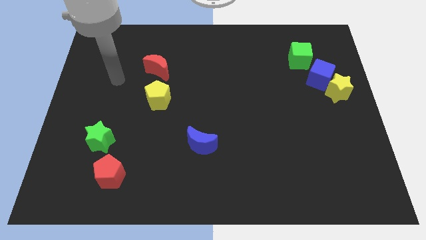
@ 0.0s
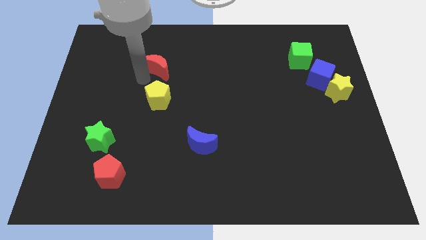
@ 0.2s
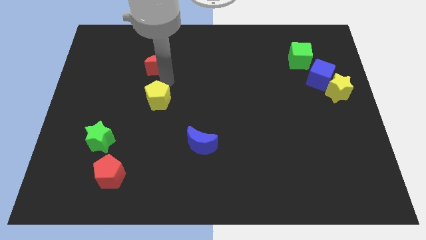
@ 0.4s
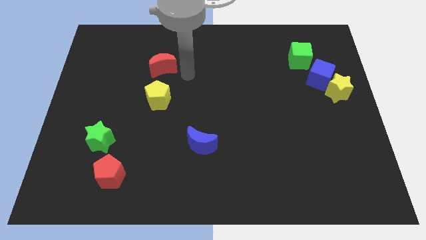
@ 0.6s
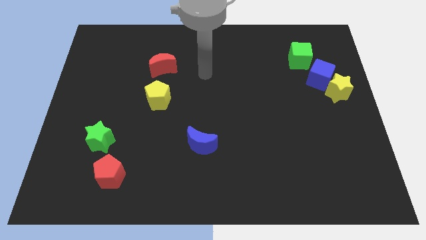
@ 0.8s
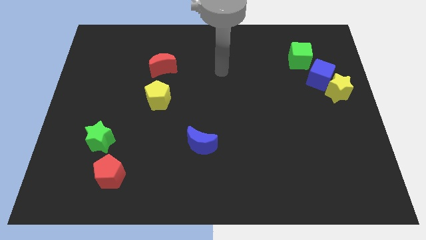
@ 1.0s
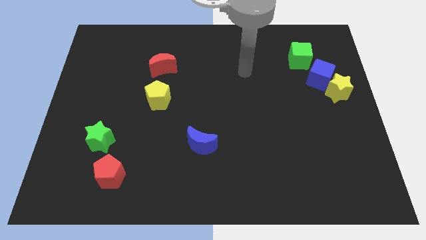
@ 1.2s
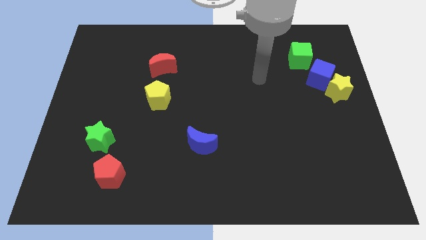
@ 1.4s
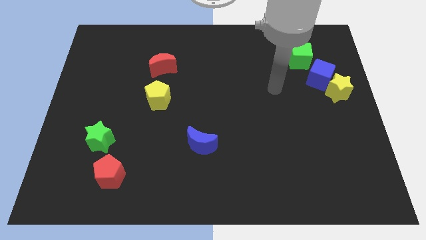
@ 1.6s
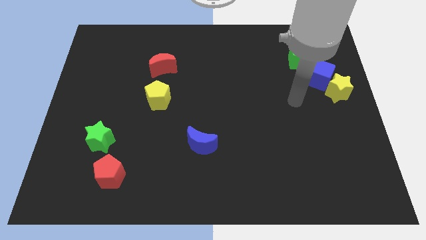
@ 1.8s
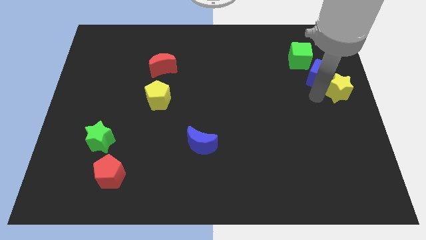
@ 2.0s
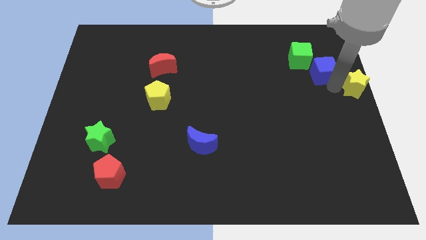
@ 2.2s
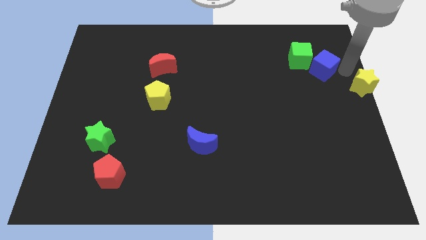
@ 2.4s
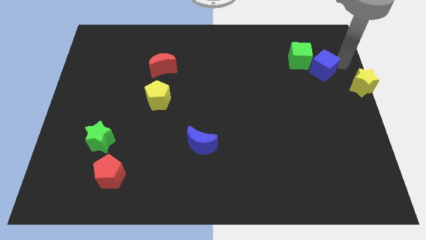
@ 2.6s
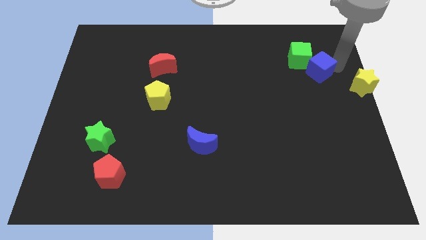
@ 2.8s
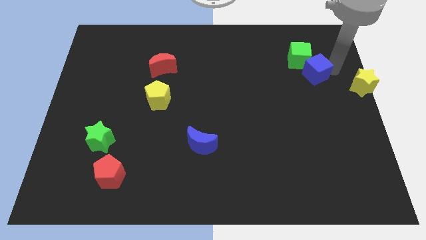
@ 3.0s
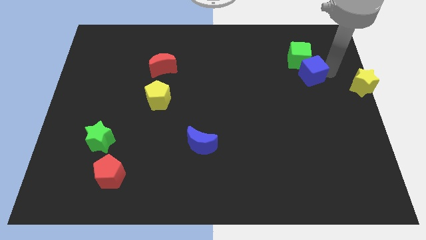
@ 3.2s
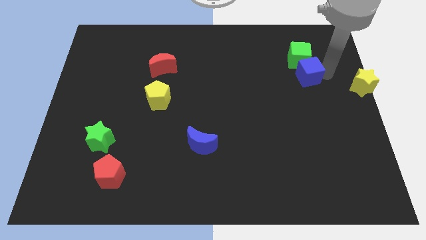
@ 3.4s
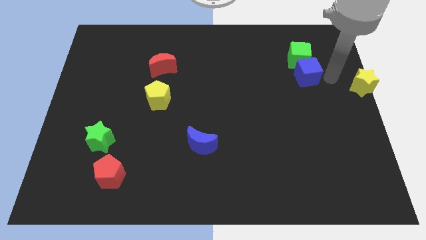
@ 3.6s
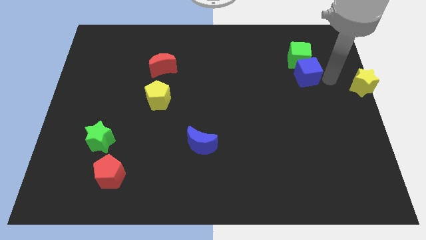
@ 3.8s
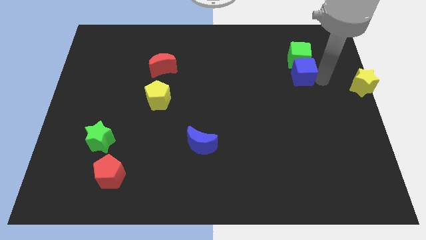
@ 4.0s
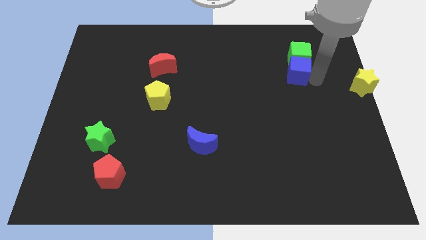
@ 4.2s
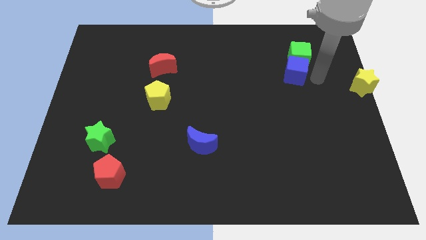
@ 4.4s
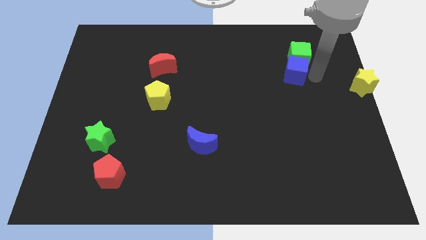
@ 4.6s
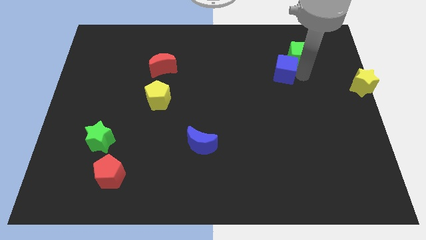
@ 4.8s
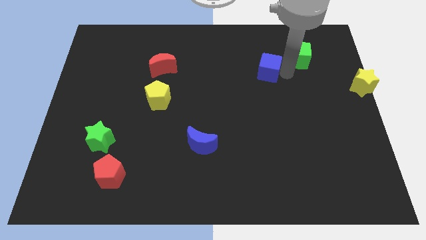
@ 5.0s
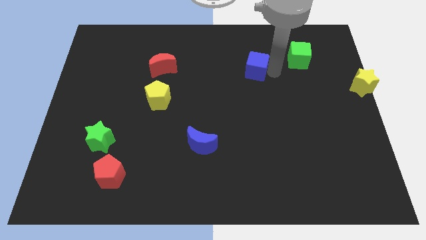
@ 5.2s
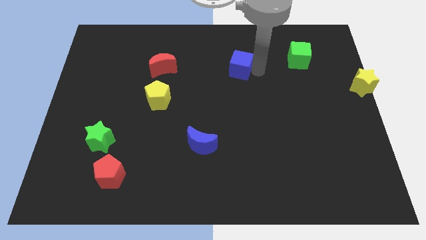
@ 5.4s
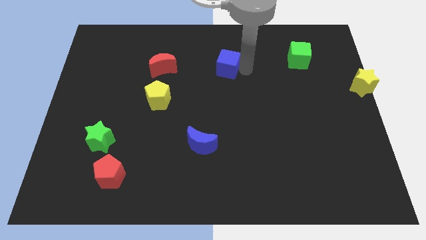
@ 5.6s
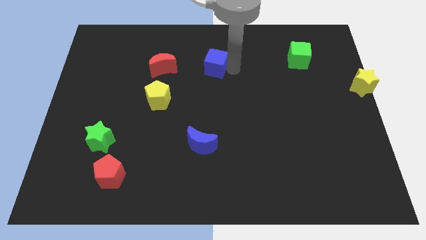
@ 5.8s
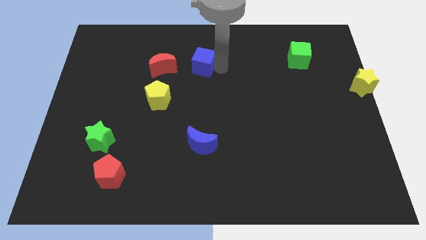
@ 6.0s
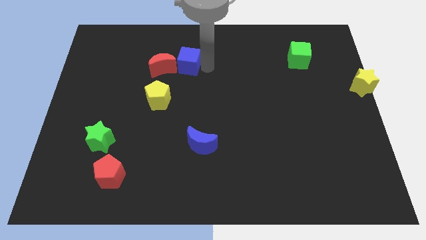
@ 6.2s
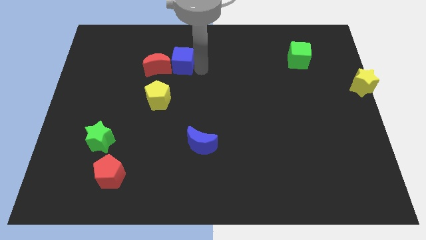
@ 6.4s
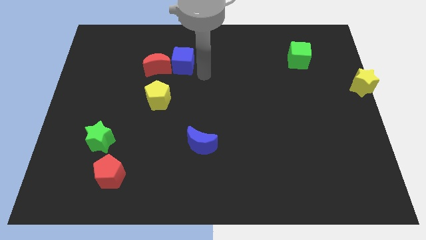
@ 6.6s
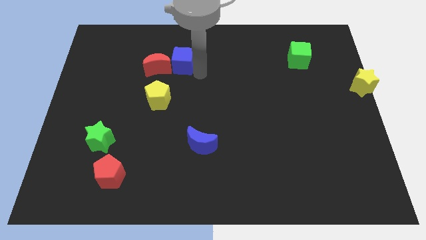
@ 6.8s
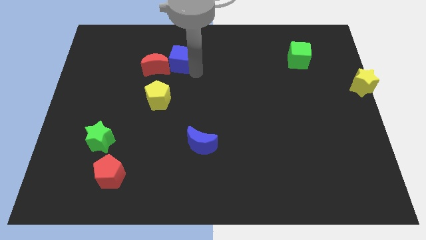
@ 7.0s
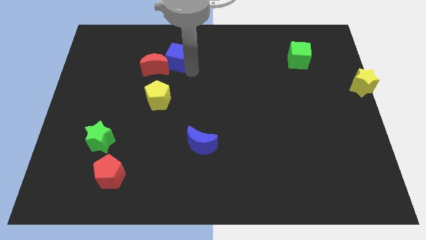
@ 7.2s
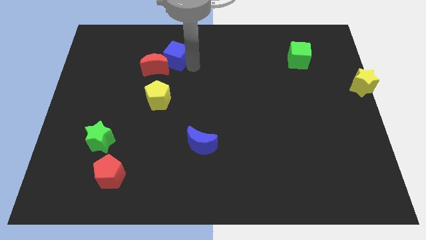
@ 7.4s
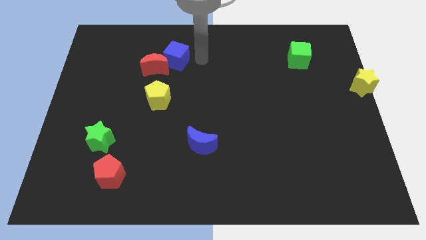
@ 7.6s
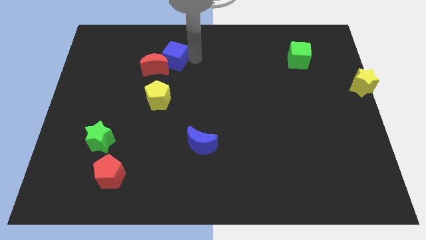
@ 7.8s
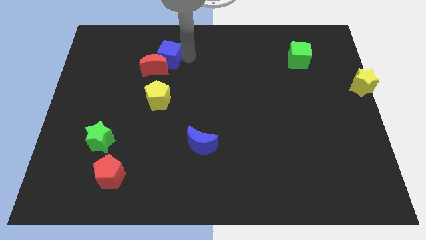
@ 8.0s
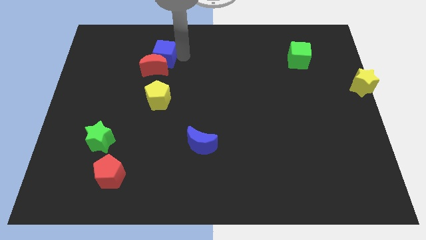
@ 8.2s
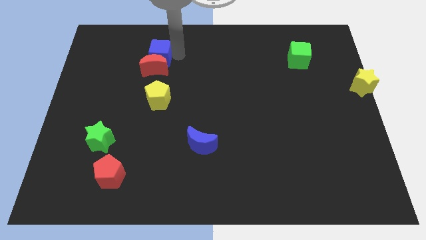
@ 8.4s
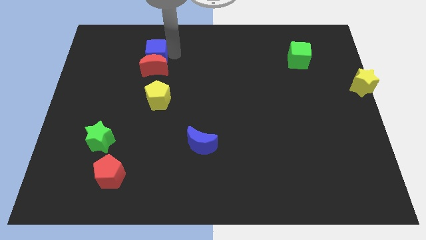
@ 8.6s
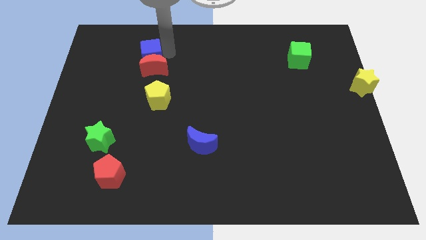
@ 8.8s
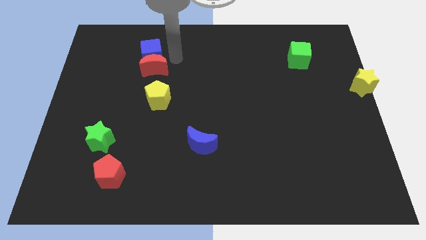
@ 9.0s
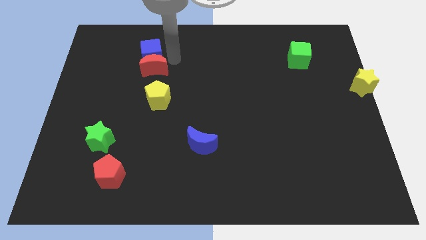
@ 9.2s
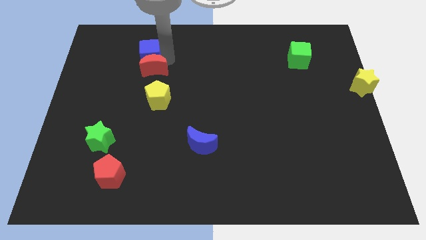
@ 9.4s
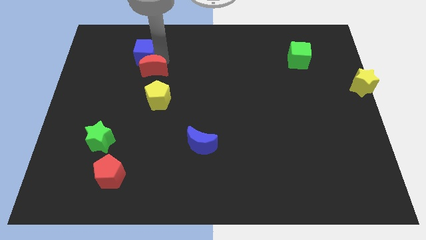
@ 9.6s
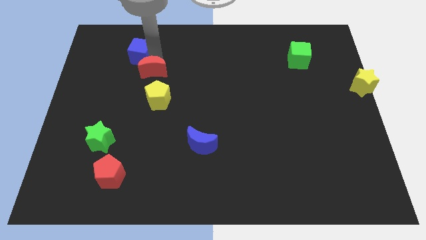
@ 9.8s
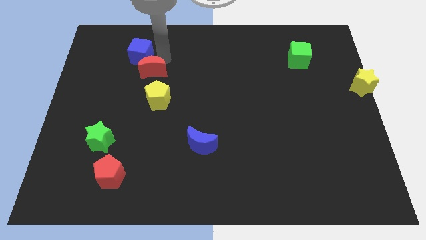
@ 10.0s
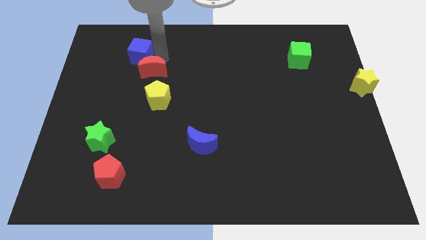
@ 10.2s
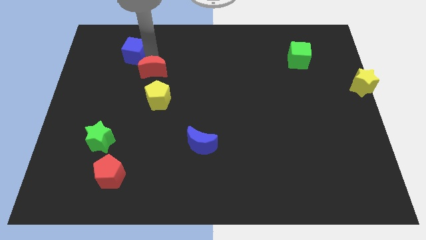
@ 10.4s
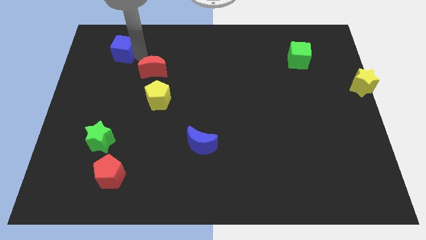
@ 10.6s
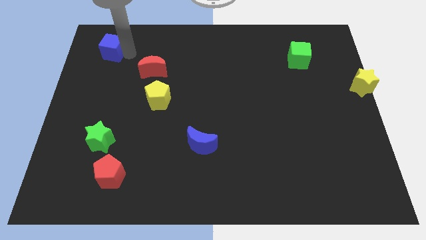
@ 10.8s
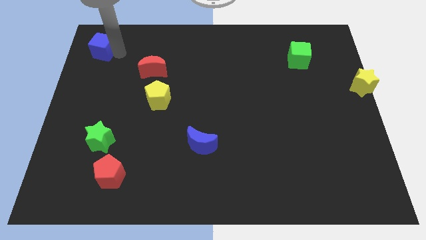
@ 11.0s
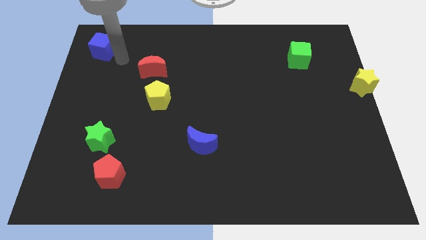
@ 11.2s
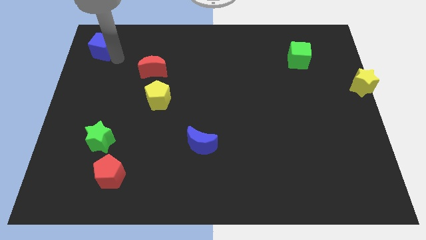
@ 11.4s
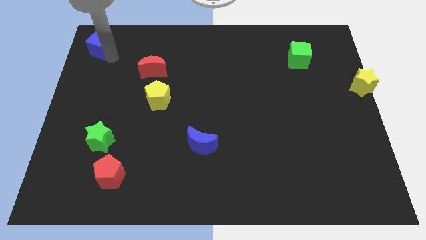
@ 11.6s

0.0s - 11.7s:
put the blue cube to the top left of the board
